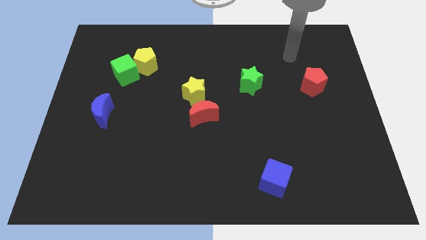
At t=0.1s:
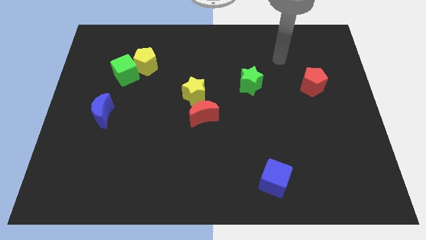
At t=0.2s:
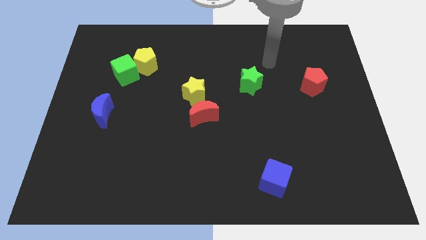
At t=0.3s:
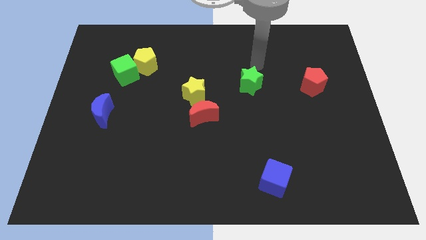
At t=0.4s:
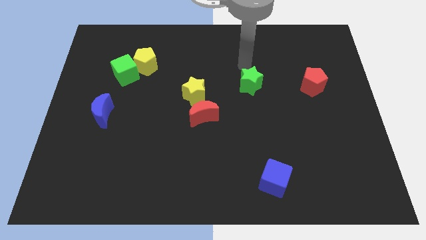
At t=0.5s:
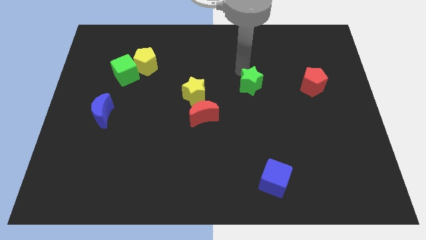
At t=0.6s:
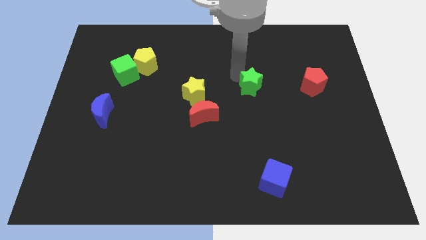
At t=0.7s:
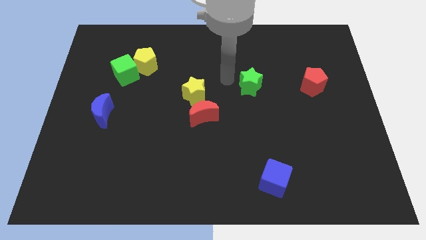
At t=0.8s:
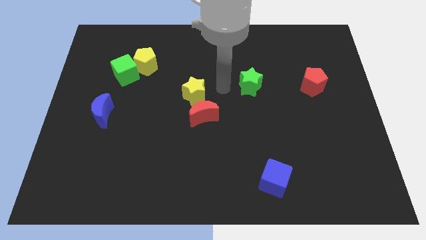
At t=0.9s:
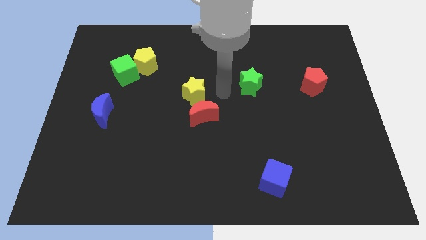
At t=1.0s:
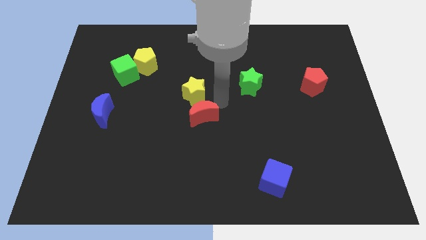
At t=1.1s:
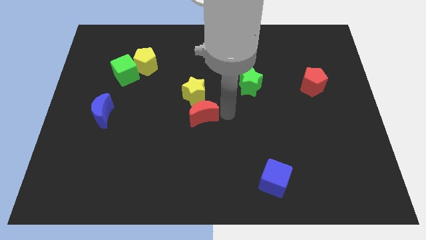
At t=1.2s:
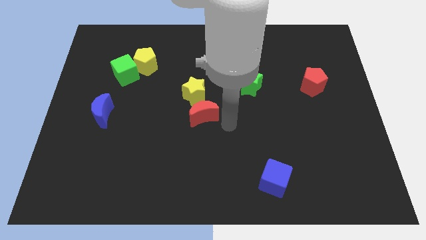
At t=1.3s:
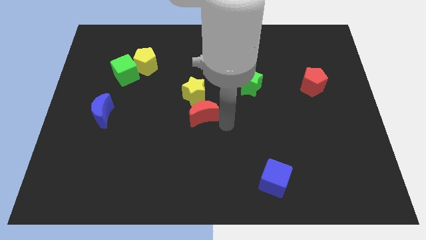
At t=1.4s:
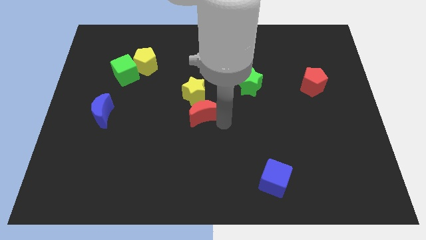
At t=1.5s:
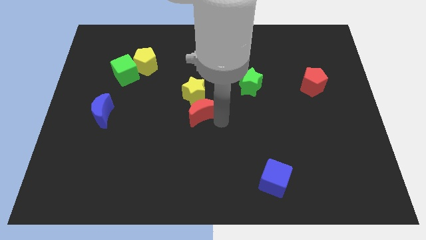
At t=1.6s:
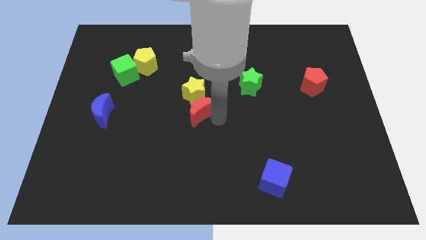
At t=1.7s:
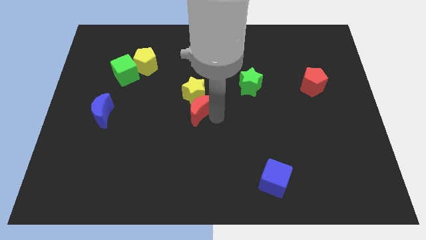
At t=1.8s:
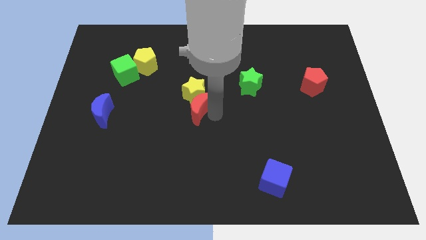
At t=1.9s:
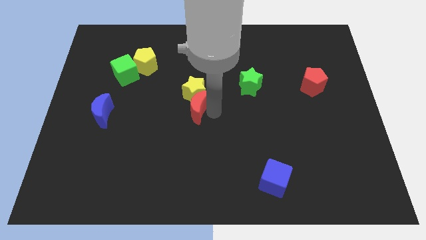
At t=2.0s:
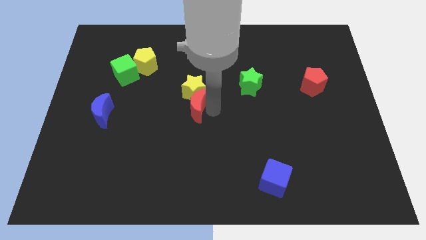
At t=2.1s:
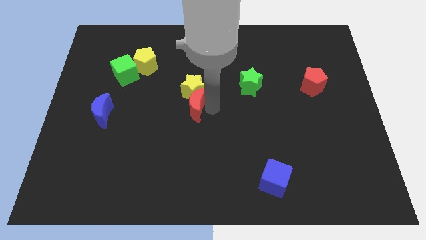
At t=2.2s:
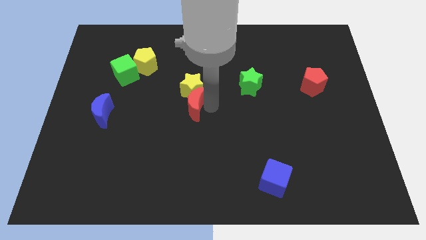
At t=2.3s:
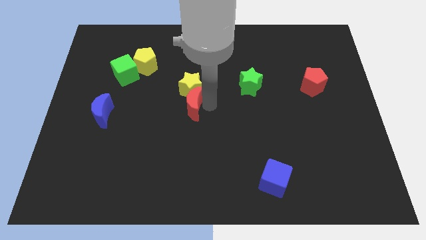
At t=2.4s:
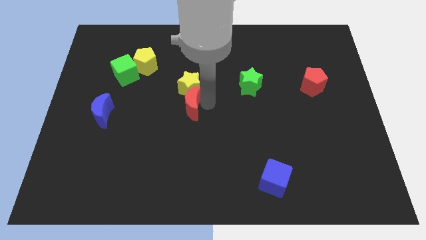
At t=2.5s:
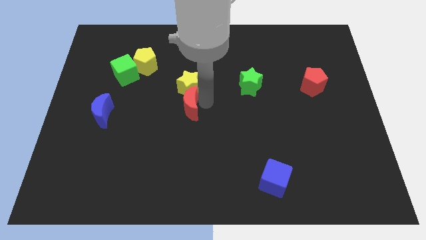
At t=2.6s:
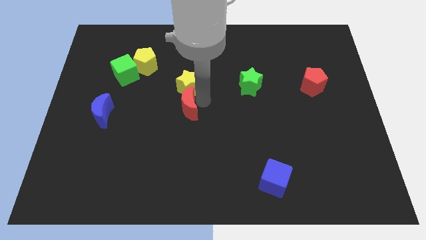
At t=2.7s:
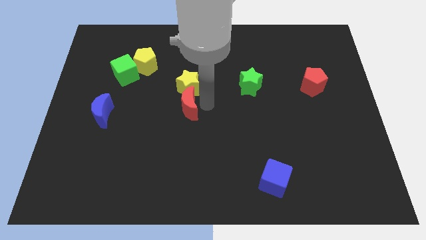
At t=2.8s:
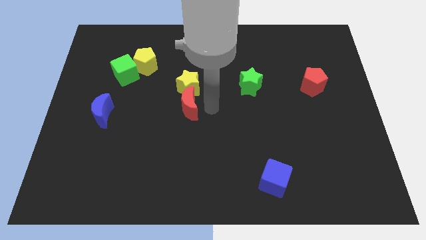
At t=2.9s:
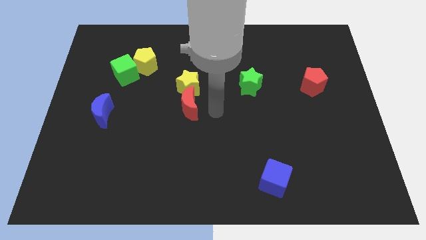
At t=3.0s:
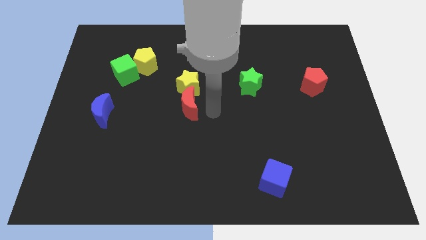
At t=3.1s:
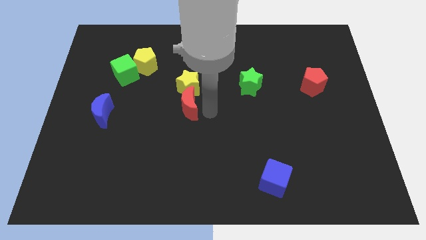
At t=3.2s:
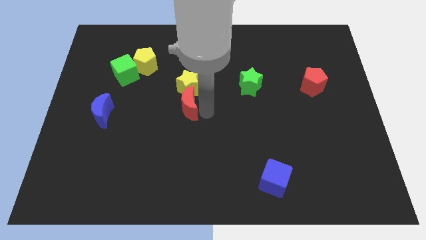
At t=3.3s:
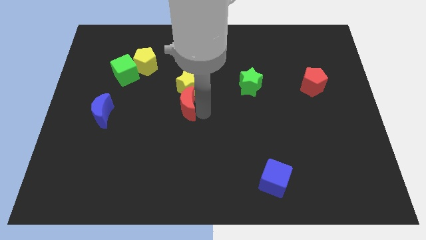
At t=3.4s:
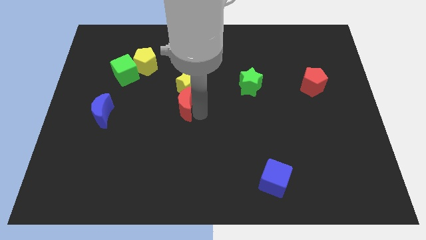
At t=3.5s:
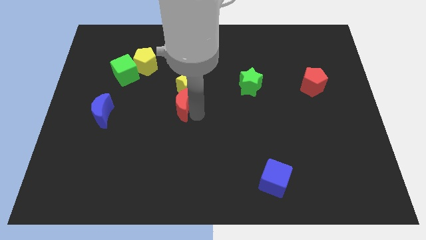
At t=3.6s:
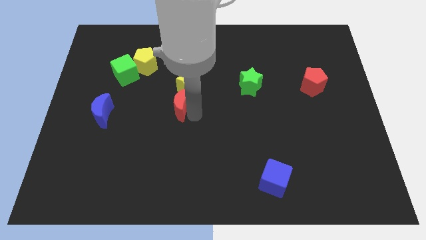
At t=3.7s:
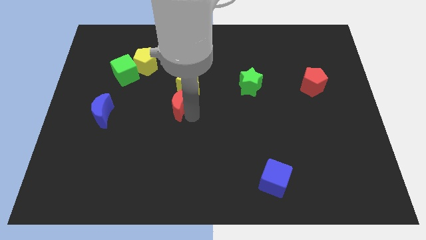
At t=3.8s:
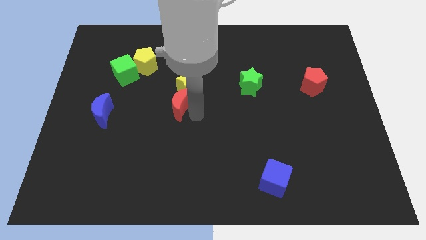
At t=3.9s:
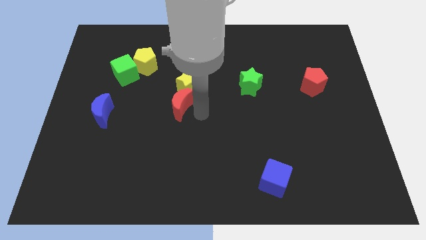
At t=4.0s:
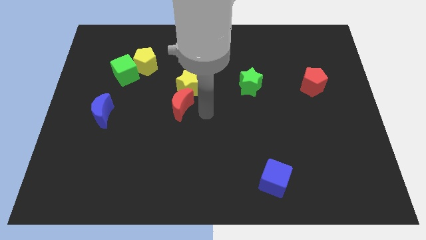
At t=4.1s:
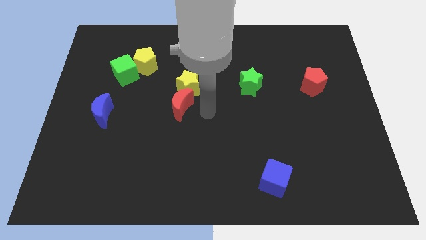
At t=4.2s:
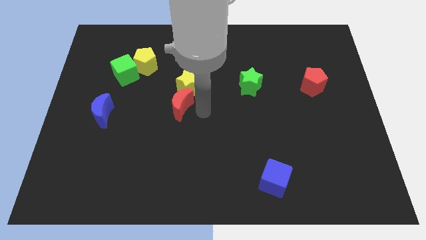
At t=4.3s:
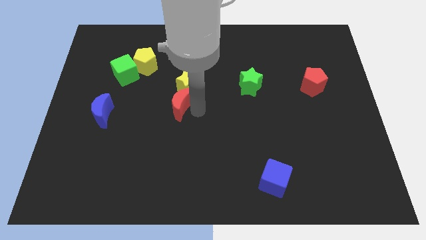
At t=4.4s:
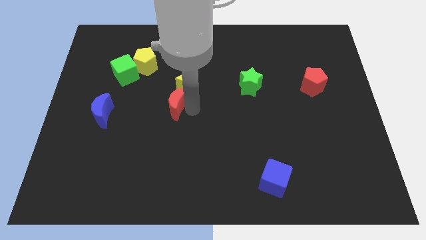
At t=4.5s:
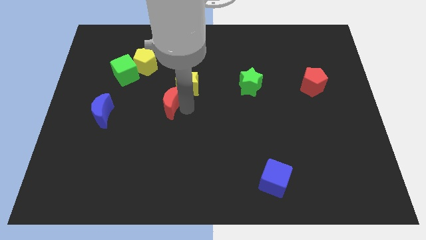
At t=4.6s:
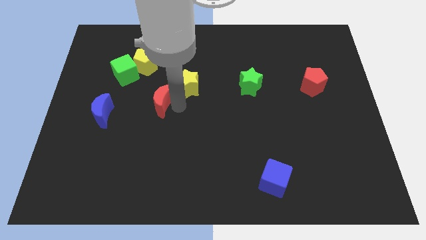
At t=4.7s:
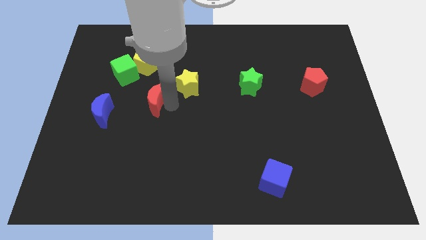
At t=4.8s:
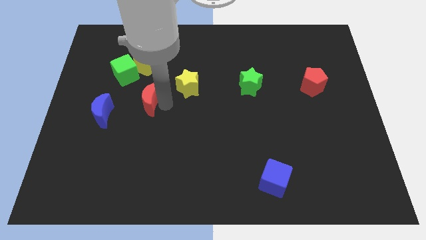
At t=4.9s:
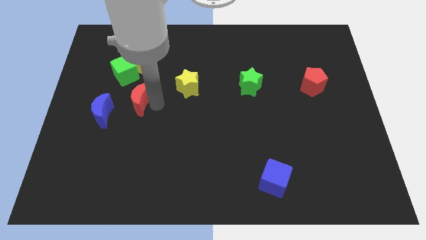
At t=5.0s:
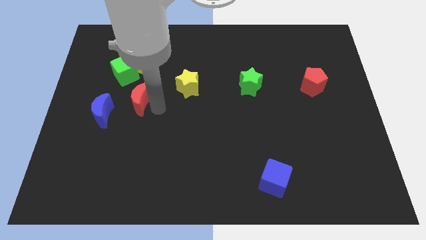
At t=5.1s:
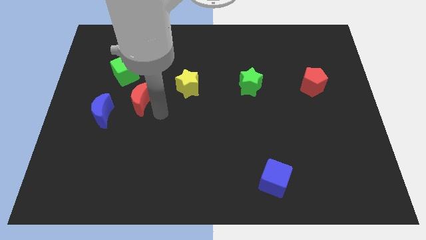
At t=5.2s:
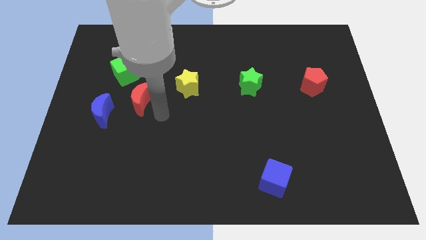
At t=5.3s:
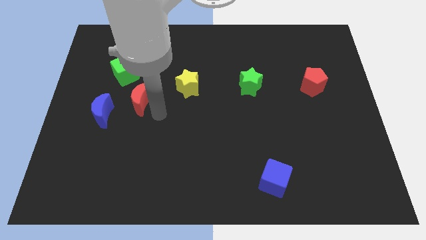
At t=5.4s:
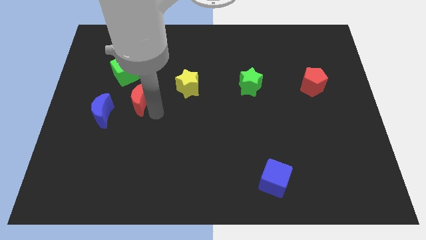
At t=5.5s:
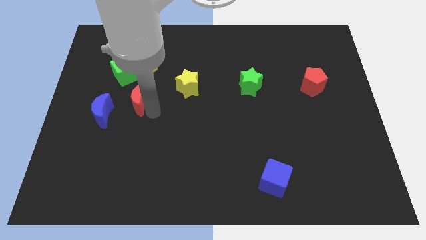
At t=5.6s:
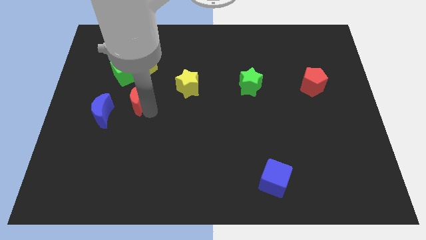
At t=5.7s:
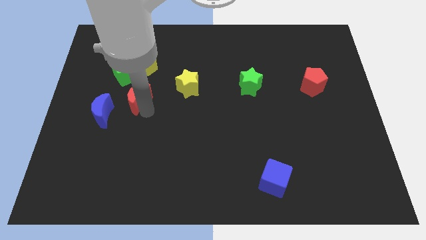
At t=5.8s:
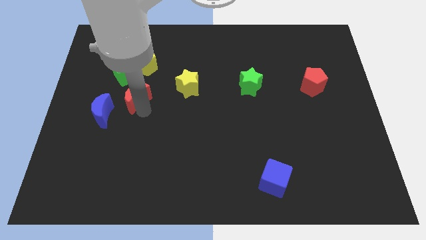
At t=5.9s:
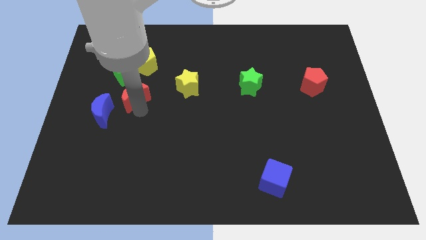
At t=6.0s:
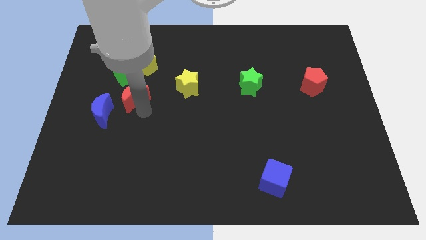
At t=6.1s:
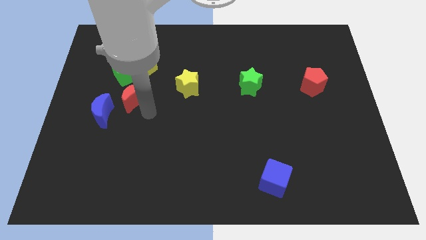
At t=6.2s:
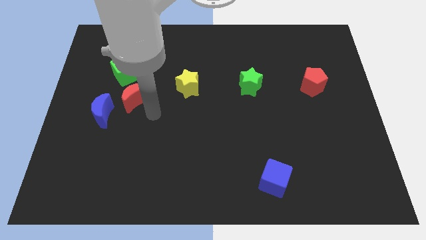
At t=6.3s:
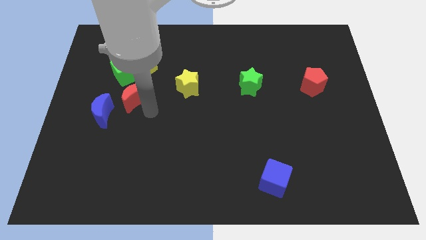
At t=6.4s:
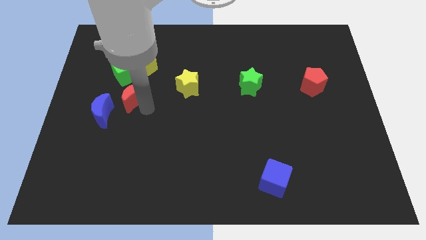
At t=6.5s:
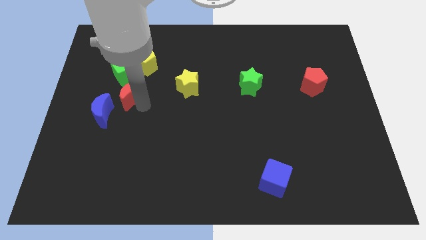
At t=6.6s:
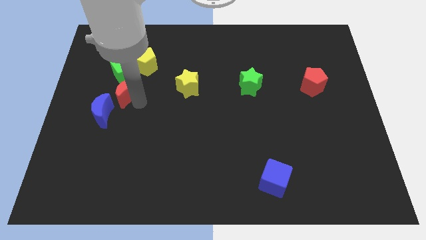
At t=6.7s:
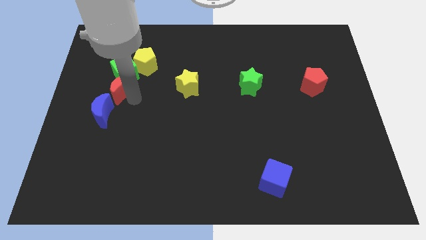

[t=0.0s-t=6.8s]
slide the red moon above the blue moon
